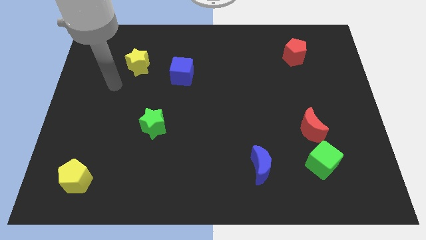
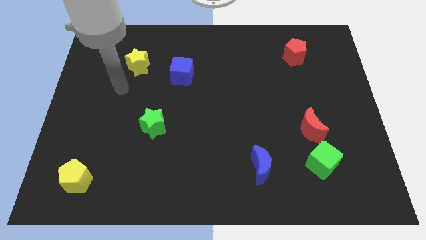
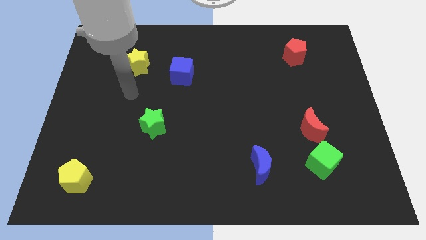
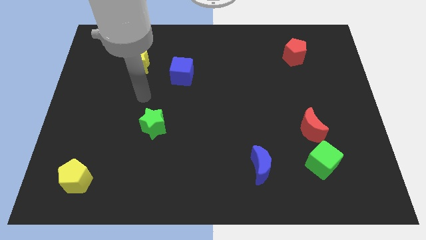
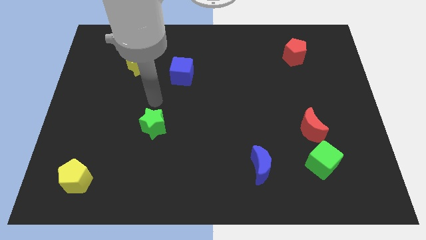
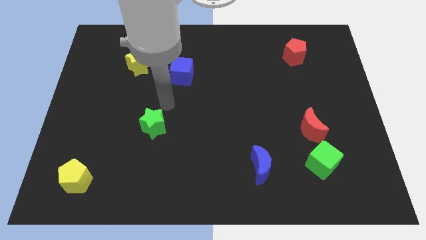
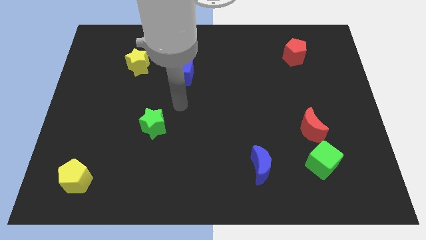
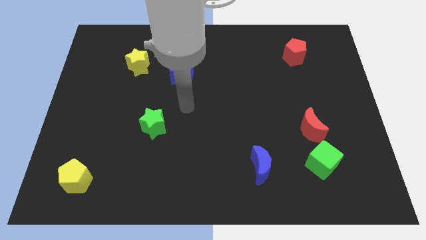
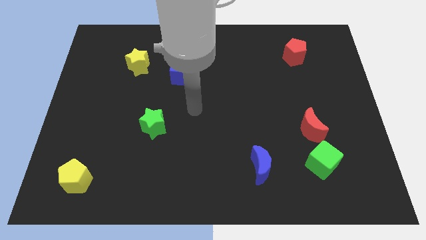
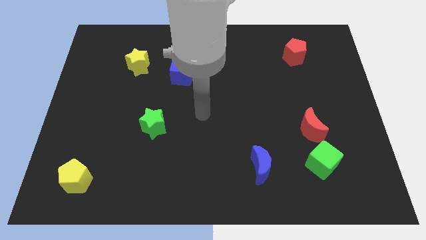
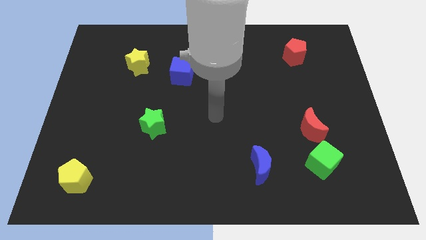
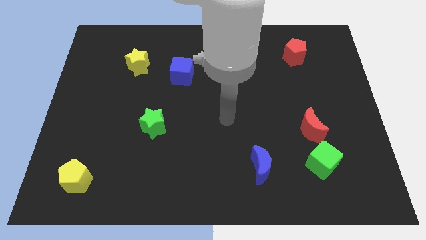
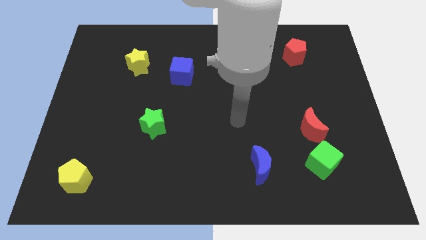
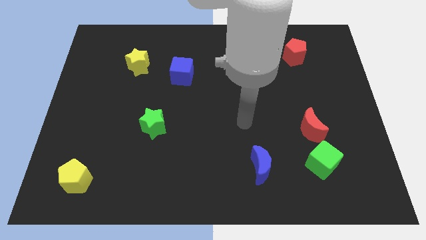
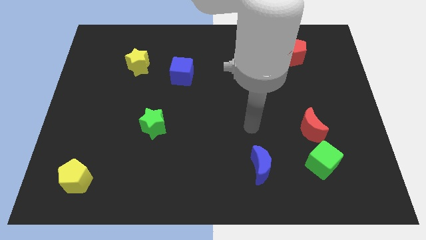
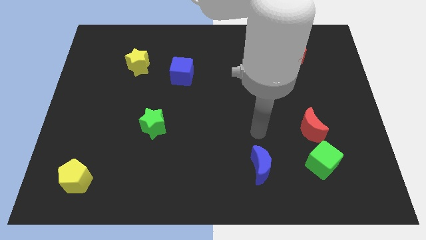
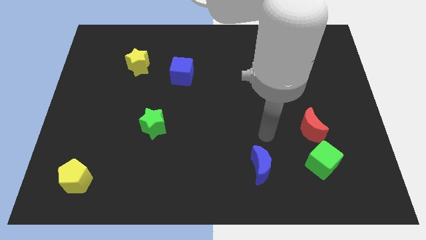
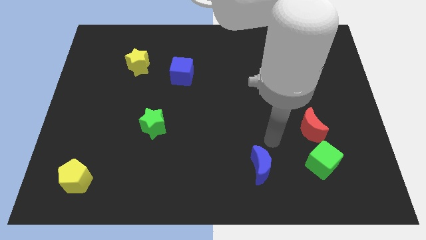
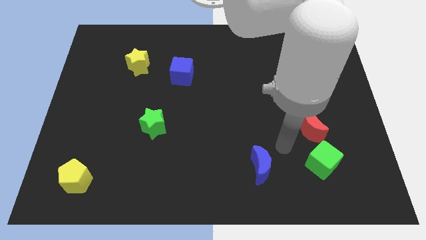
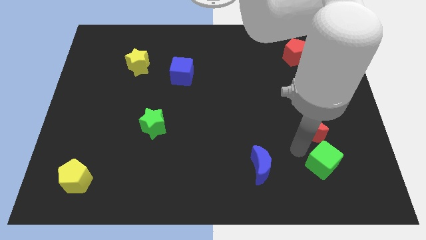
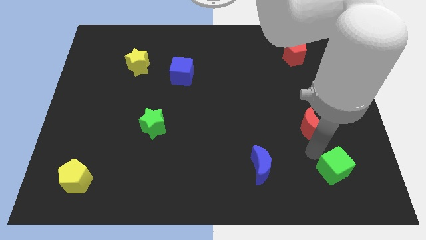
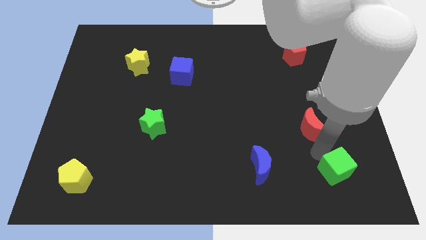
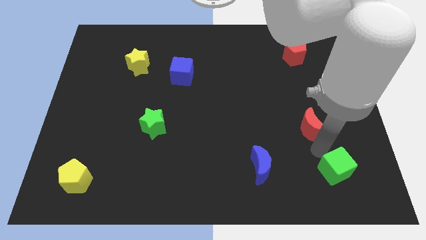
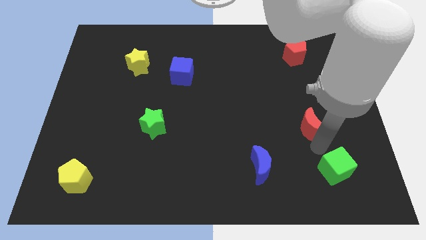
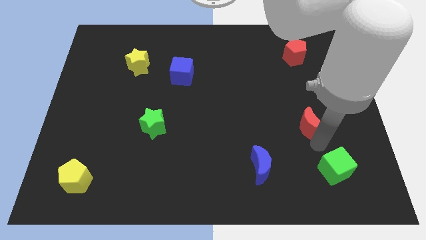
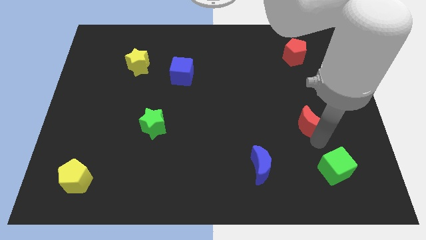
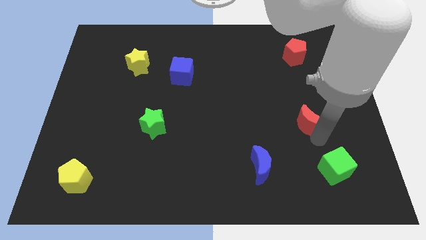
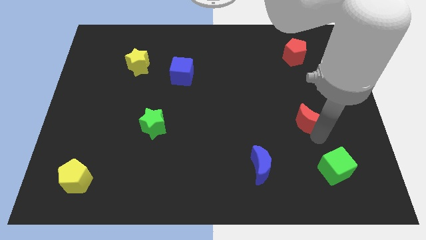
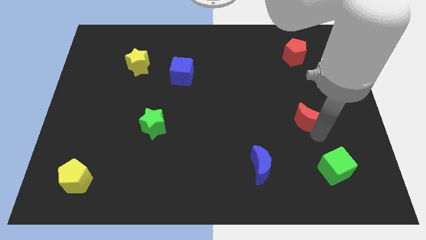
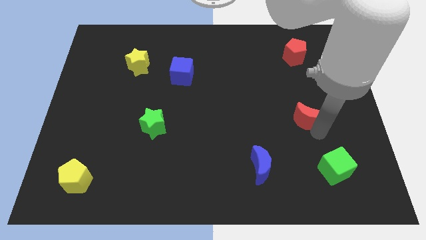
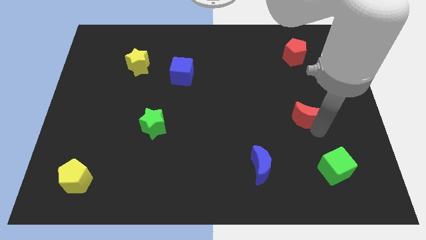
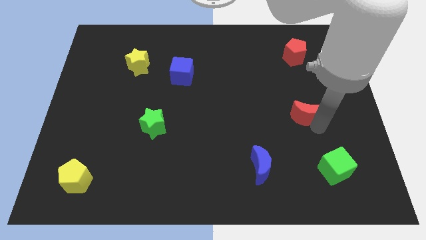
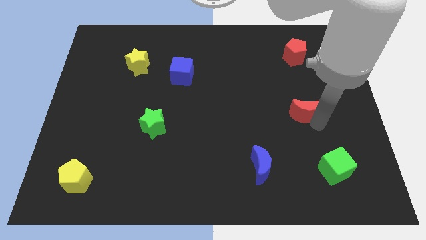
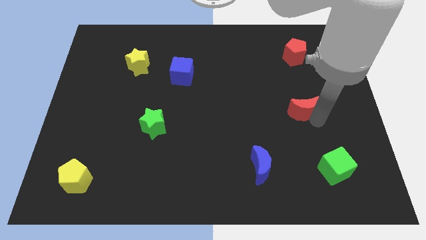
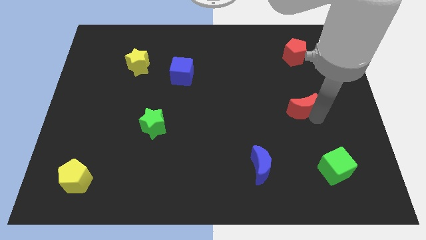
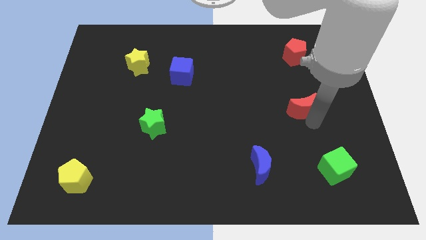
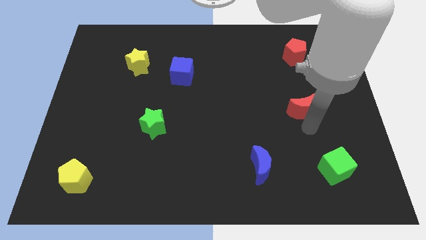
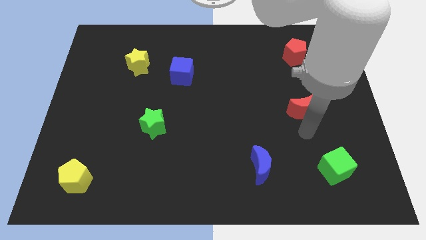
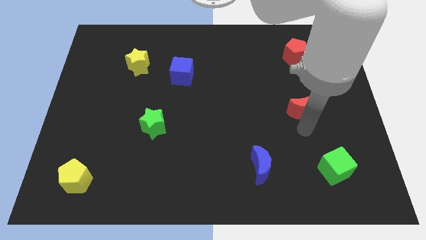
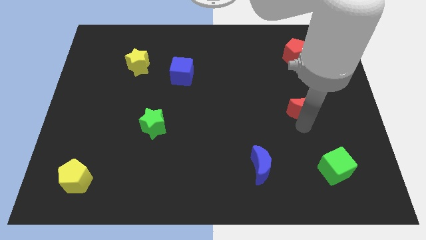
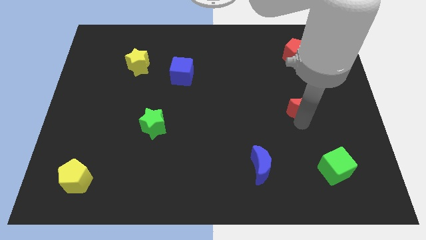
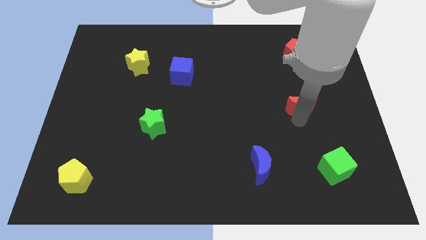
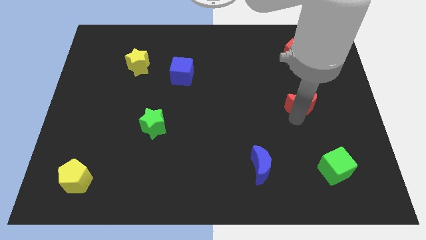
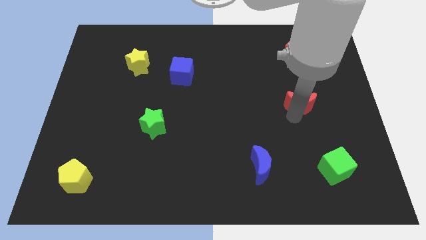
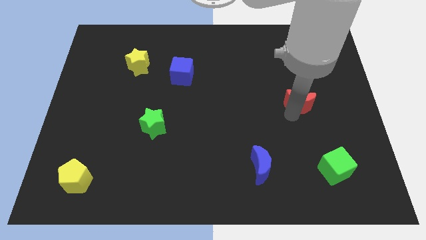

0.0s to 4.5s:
slide the red moon upwards a little

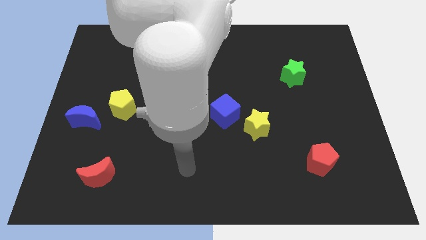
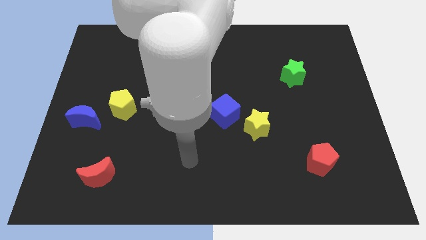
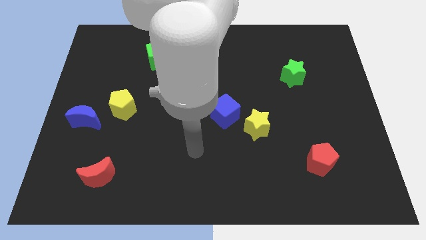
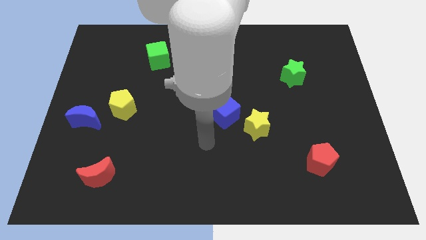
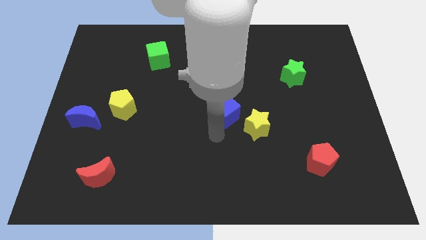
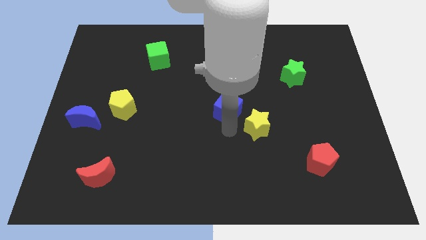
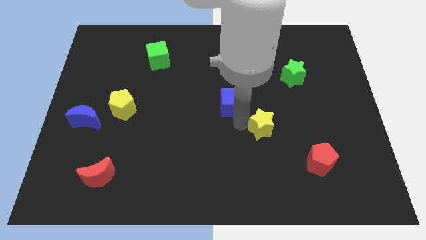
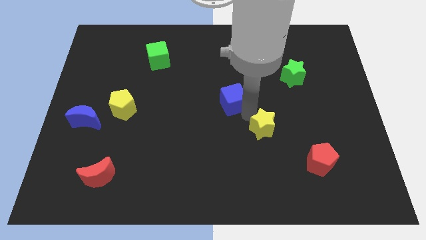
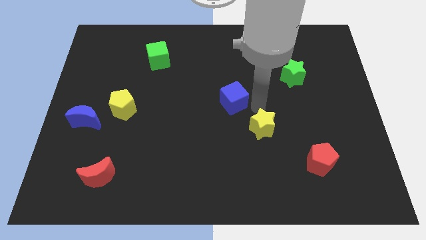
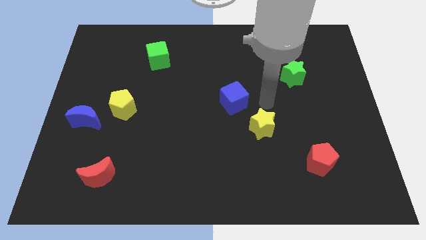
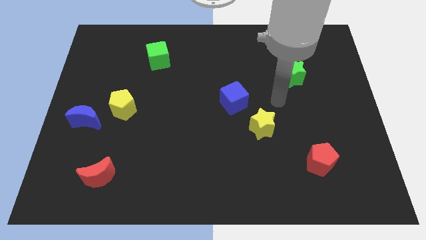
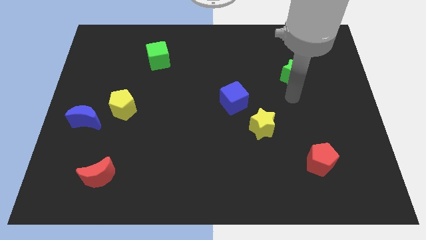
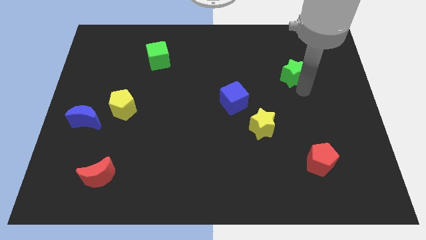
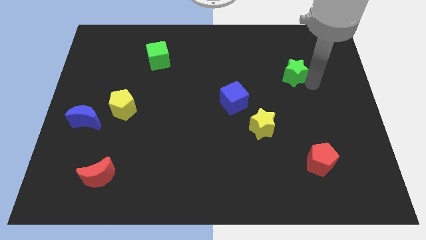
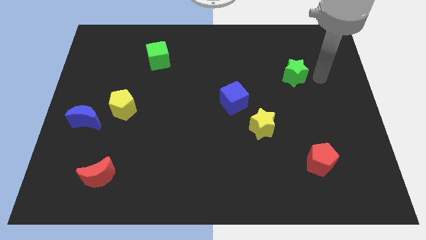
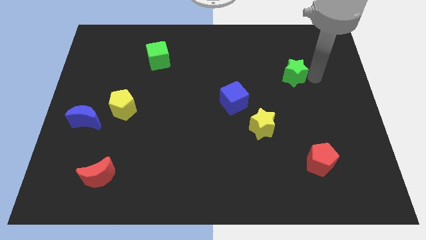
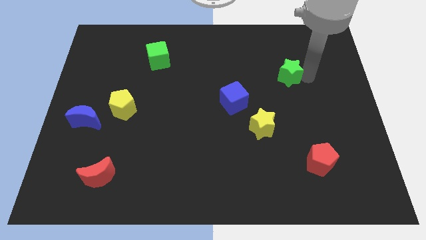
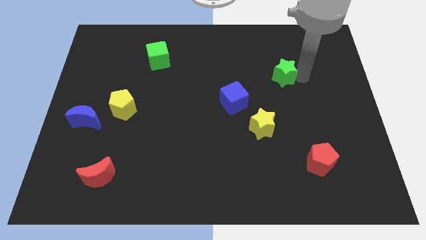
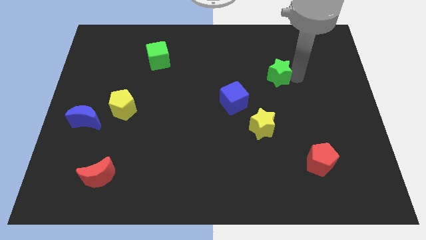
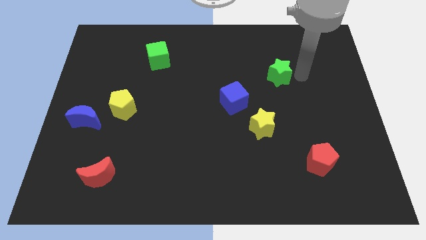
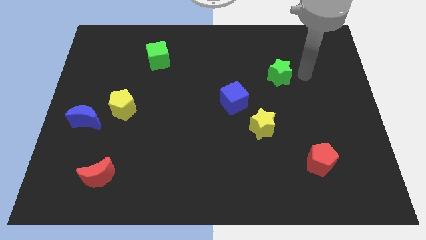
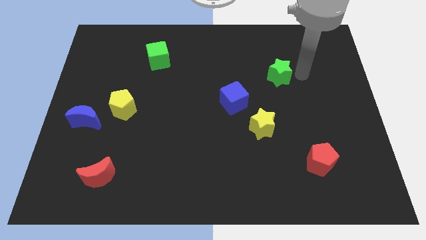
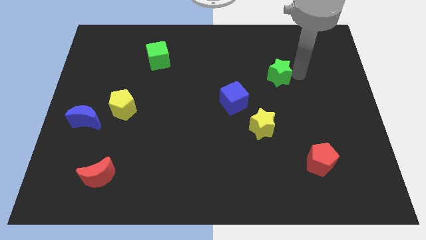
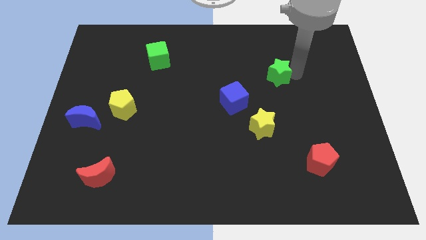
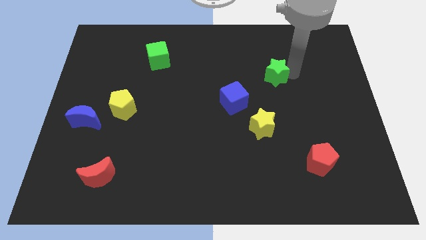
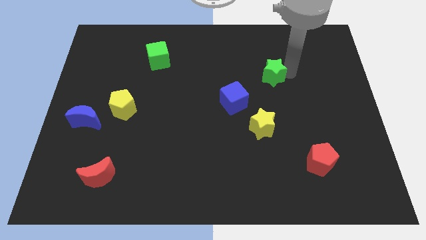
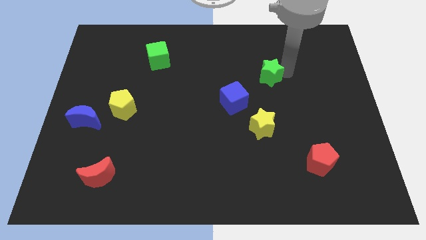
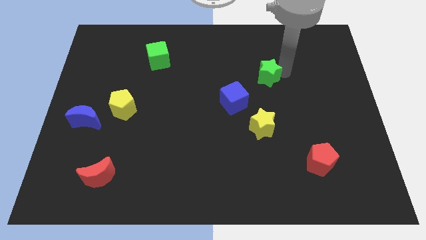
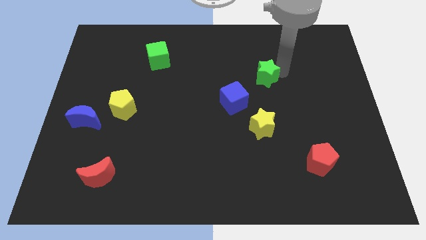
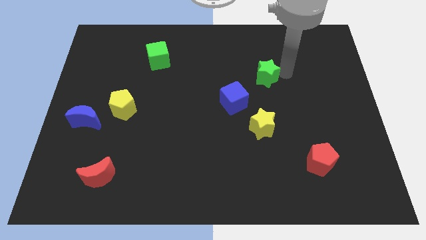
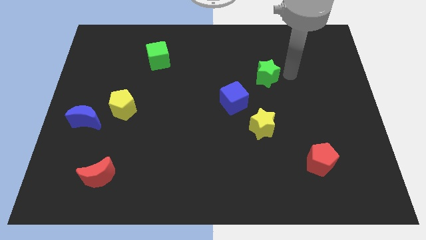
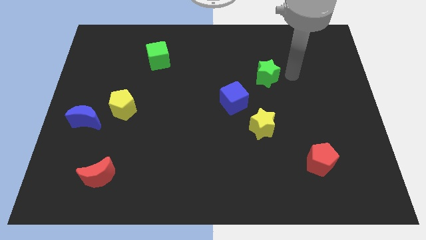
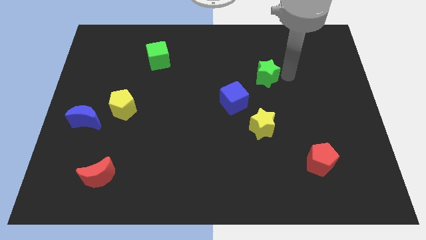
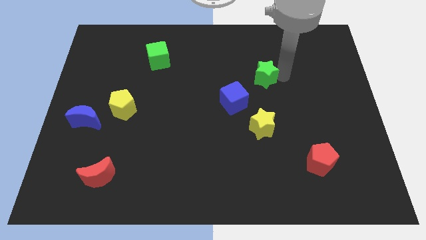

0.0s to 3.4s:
slide the green star left a little

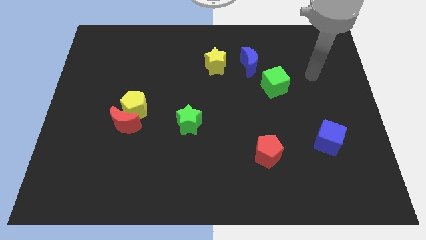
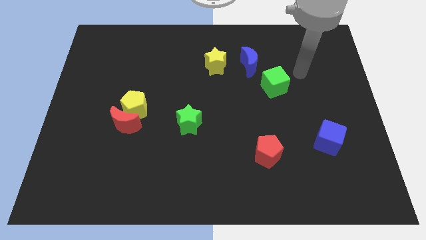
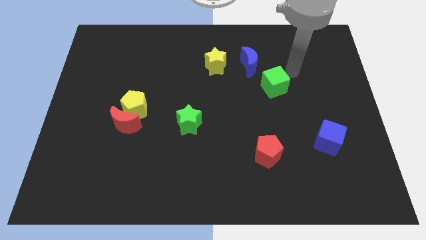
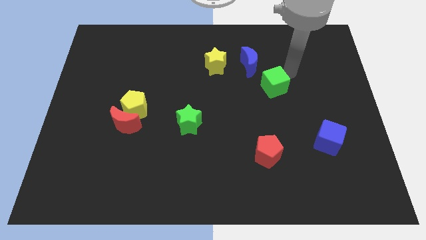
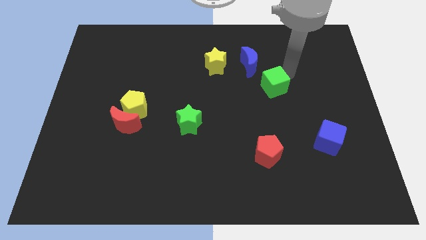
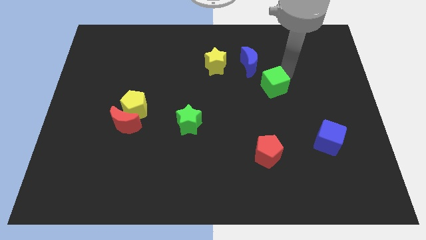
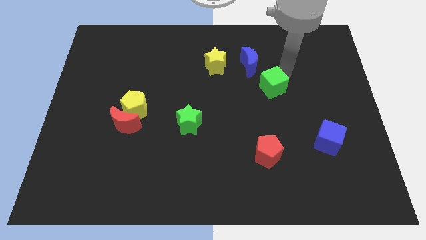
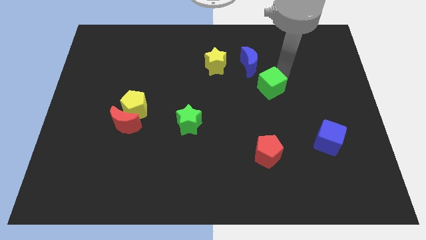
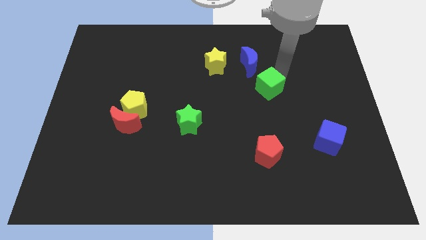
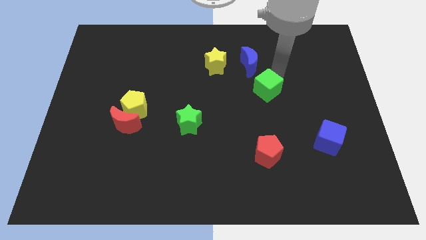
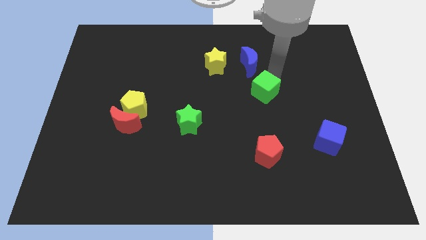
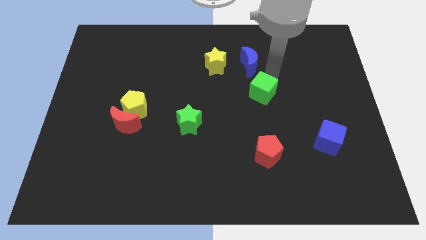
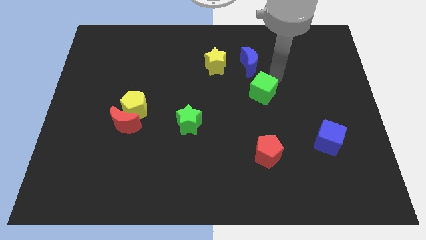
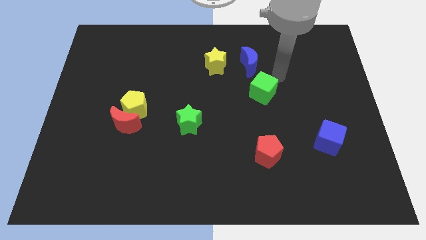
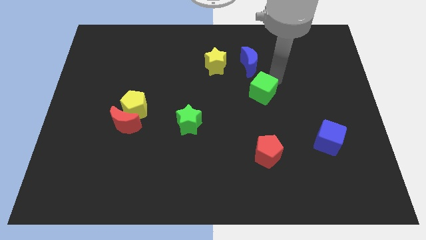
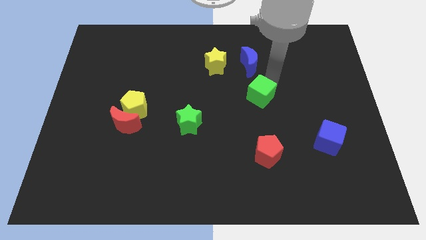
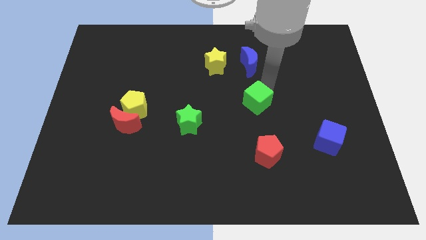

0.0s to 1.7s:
push the green cube downwards and to the left diagonally a bit
